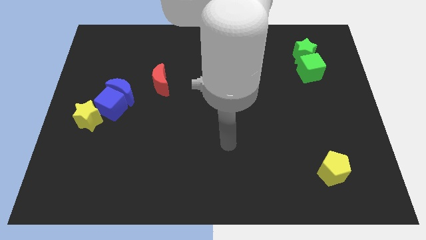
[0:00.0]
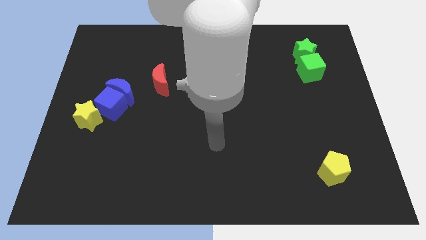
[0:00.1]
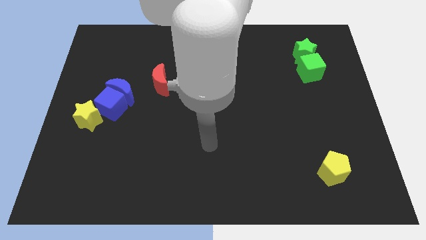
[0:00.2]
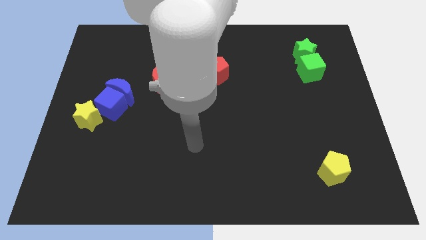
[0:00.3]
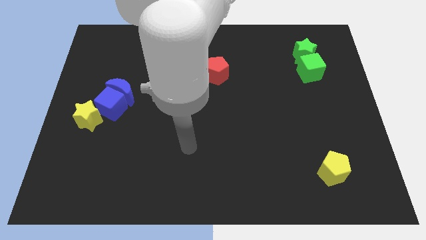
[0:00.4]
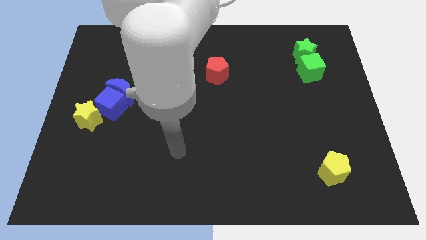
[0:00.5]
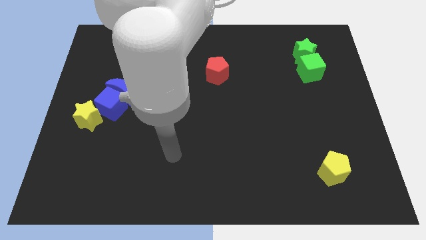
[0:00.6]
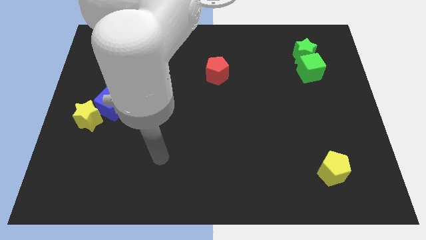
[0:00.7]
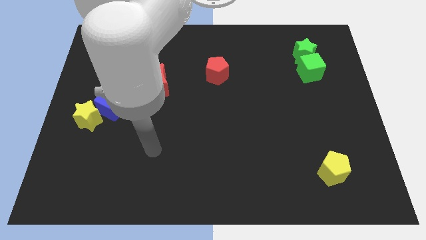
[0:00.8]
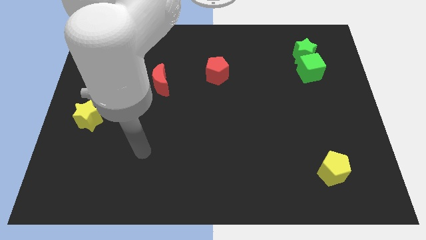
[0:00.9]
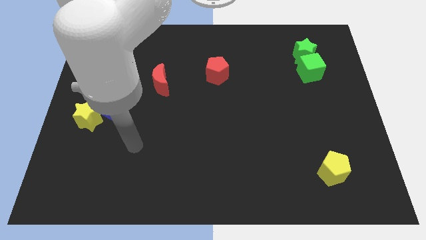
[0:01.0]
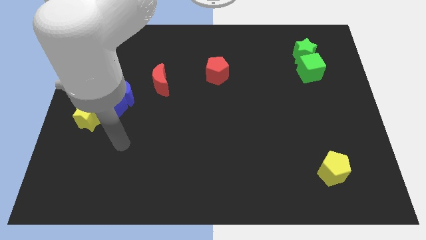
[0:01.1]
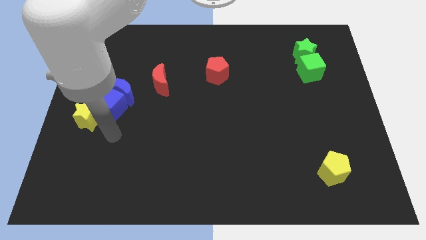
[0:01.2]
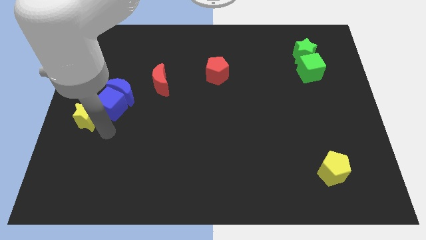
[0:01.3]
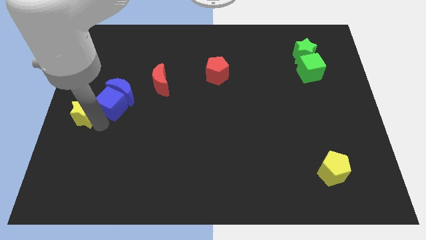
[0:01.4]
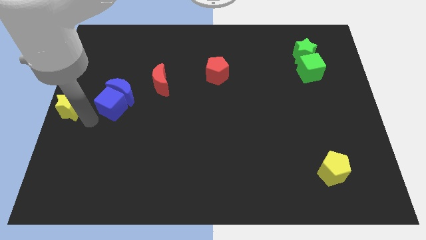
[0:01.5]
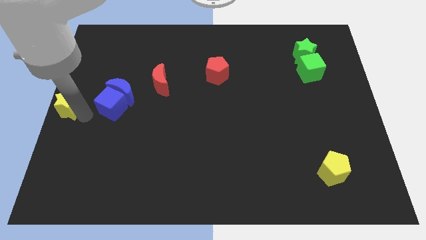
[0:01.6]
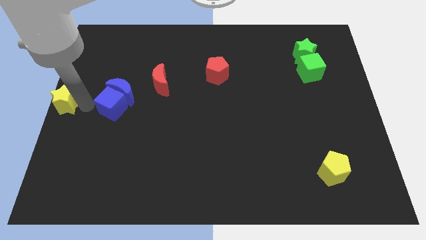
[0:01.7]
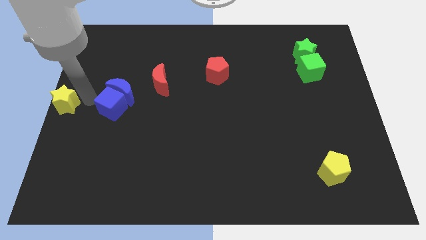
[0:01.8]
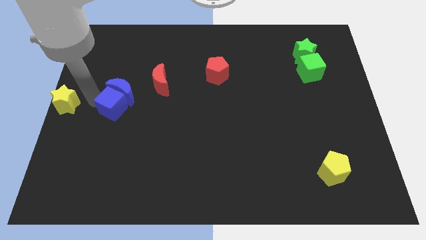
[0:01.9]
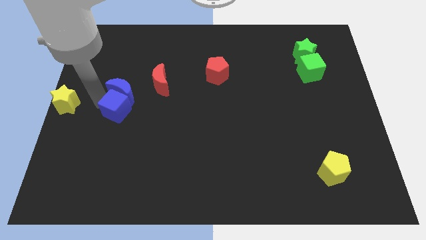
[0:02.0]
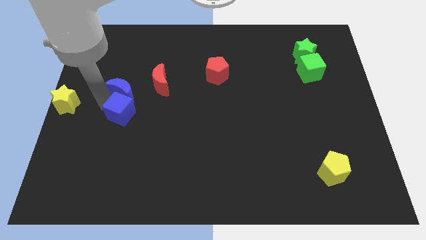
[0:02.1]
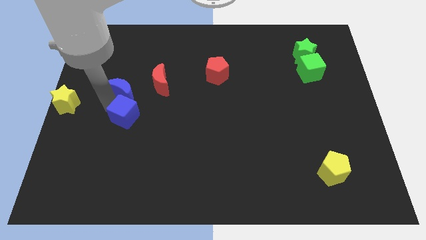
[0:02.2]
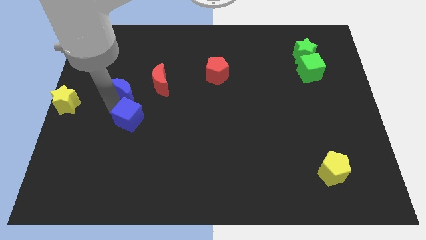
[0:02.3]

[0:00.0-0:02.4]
pull the blue cube apart from the blue moon and yellow star

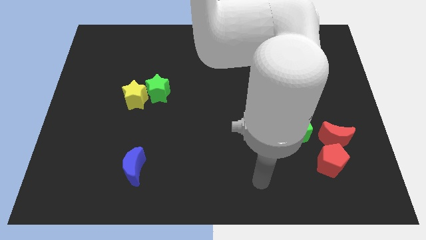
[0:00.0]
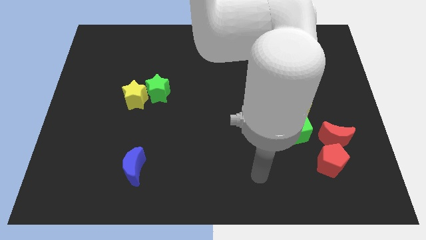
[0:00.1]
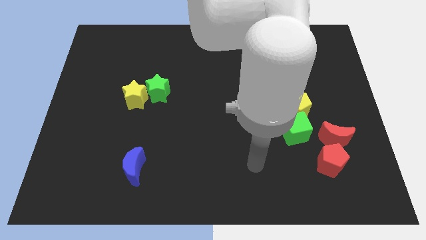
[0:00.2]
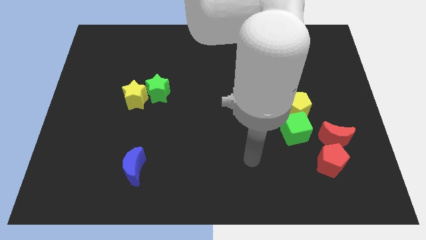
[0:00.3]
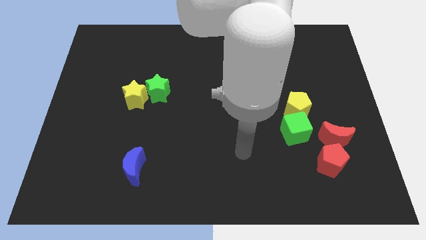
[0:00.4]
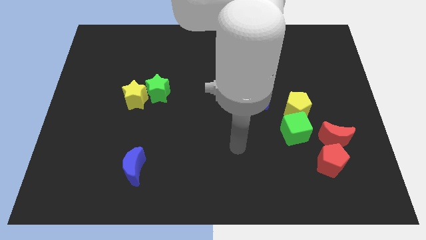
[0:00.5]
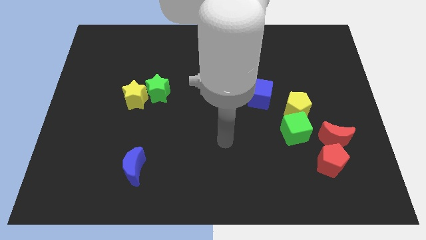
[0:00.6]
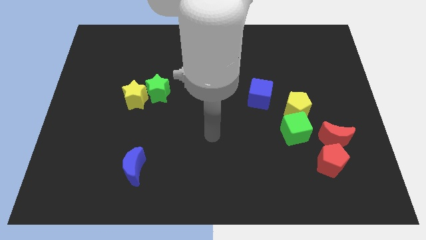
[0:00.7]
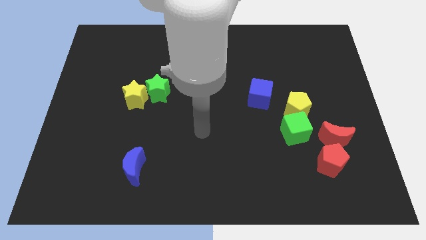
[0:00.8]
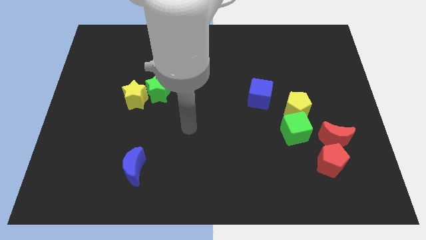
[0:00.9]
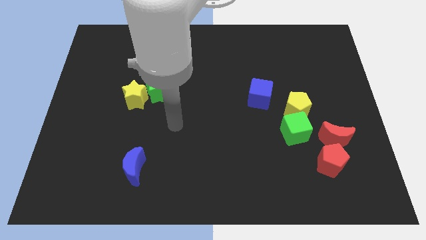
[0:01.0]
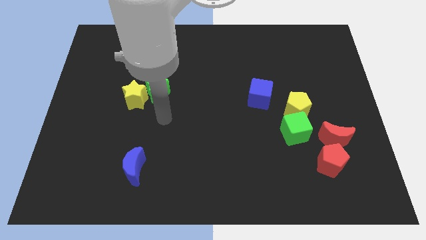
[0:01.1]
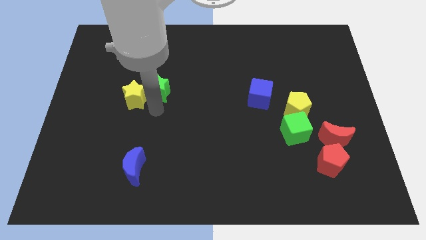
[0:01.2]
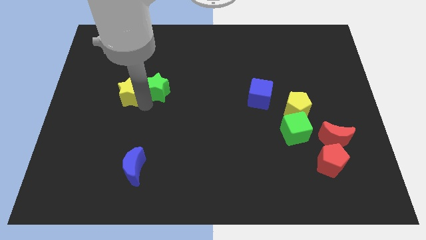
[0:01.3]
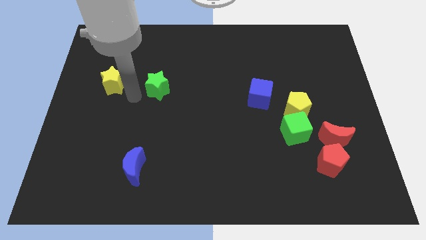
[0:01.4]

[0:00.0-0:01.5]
pull the green star apart from the yellow star

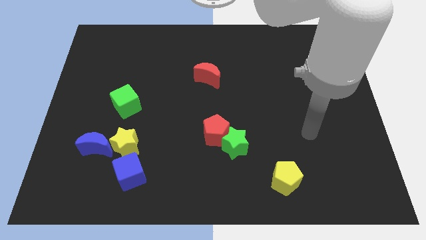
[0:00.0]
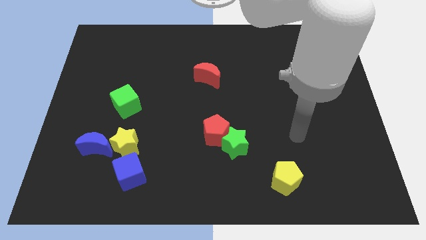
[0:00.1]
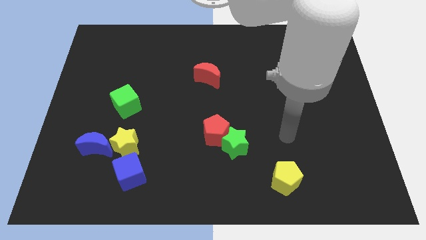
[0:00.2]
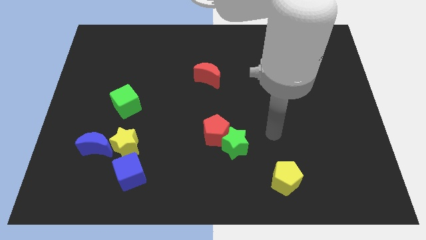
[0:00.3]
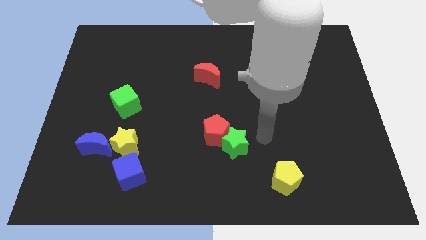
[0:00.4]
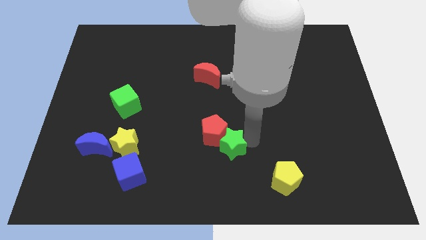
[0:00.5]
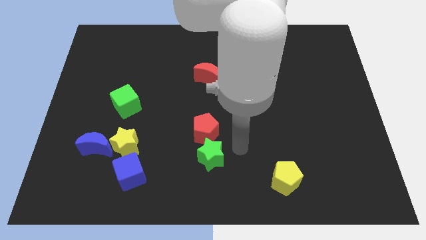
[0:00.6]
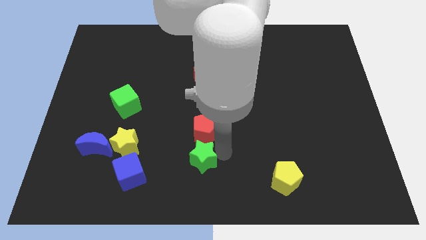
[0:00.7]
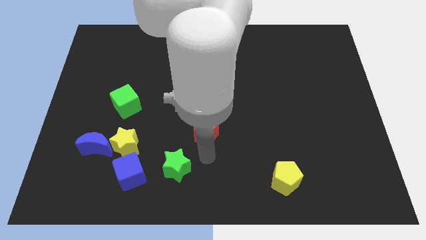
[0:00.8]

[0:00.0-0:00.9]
pull the red pentagon apart from the green star

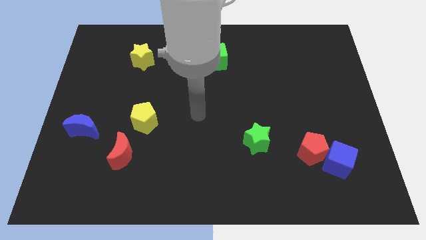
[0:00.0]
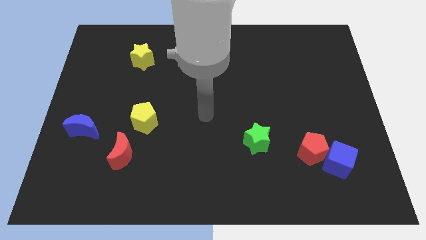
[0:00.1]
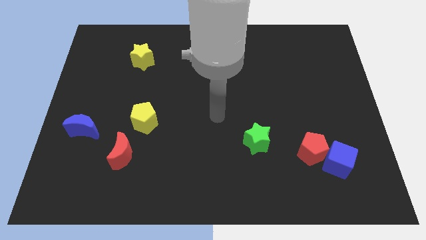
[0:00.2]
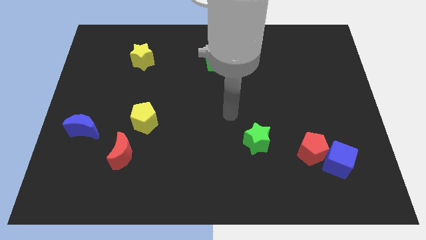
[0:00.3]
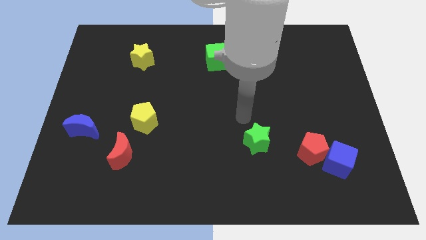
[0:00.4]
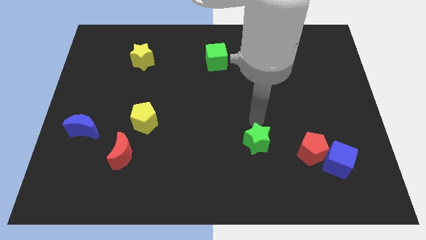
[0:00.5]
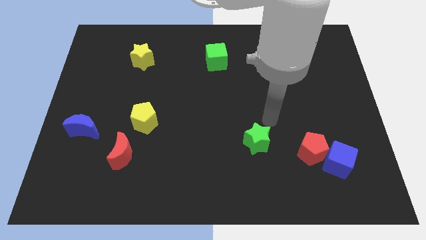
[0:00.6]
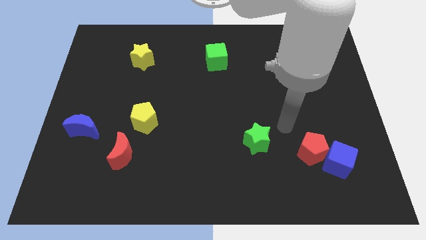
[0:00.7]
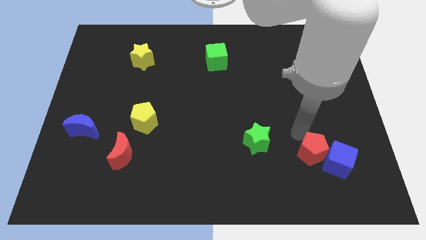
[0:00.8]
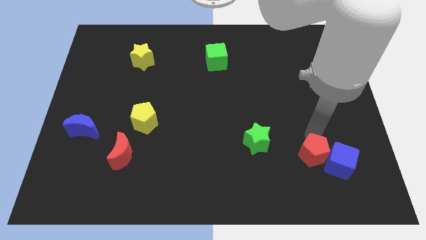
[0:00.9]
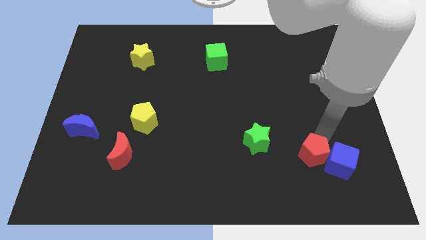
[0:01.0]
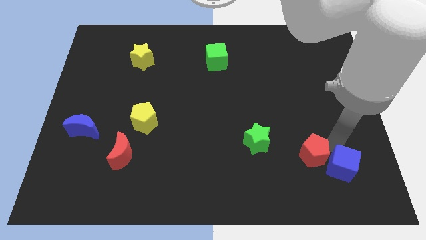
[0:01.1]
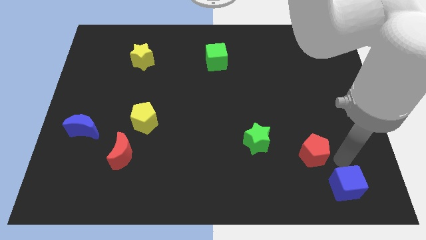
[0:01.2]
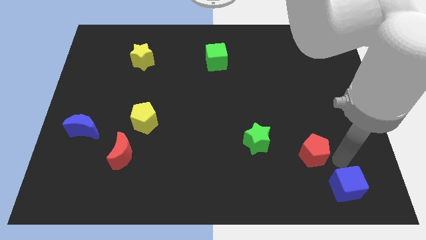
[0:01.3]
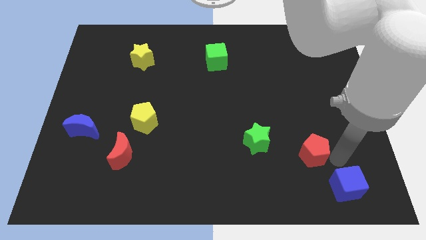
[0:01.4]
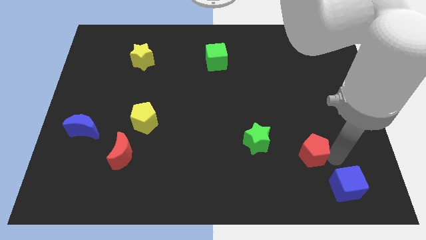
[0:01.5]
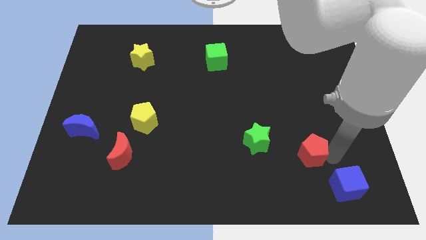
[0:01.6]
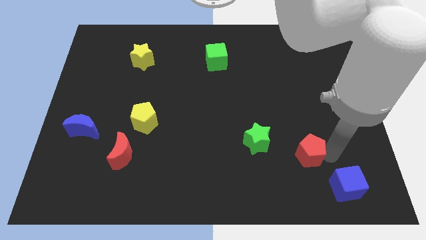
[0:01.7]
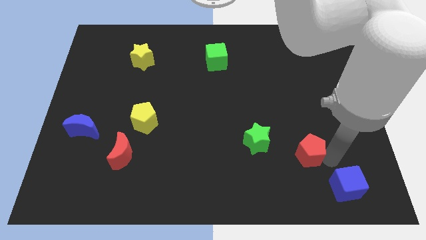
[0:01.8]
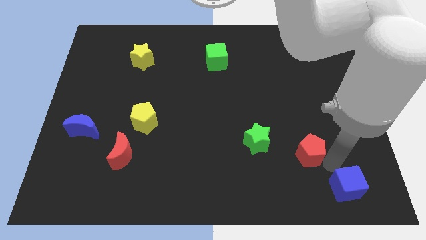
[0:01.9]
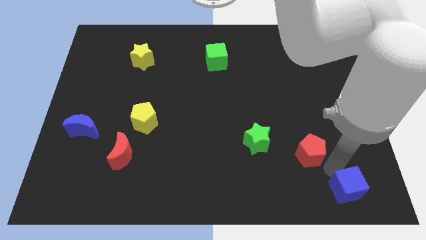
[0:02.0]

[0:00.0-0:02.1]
move the red pentagon away from the blue cube

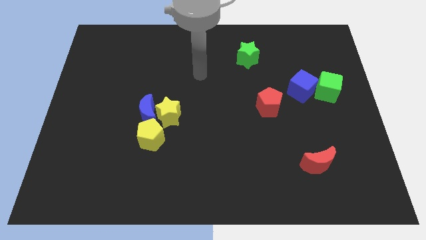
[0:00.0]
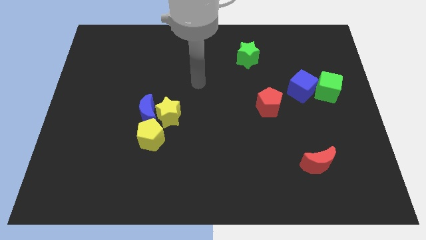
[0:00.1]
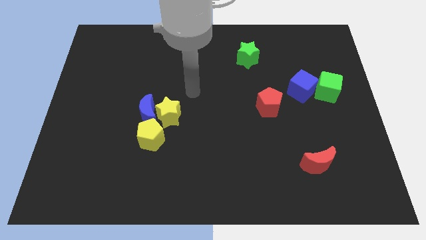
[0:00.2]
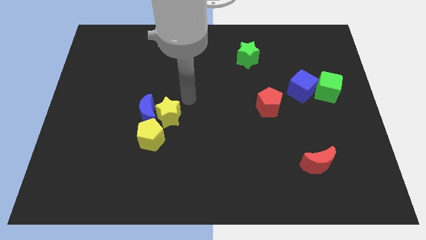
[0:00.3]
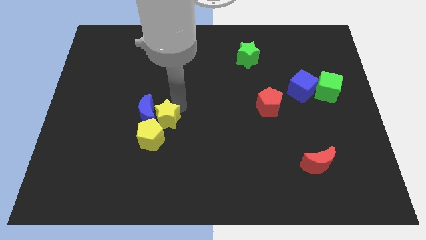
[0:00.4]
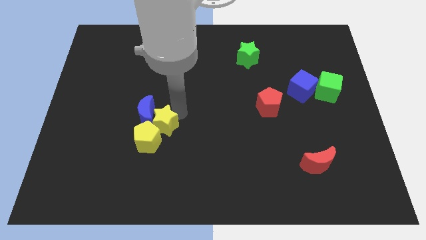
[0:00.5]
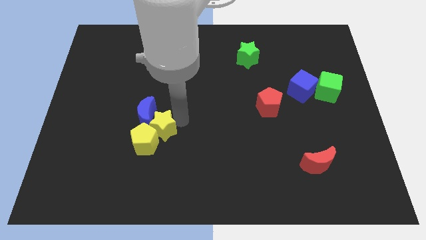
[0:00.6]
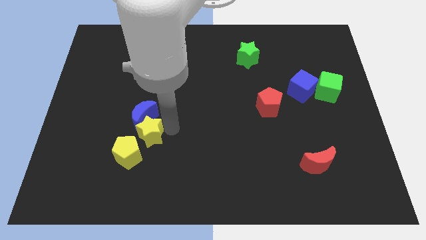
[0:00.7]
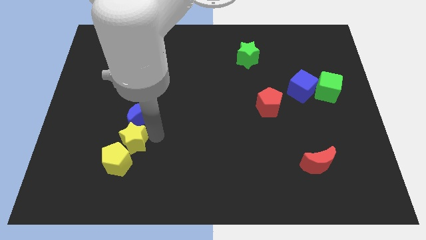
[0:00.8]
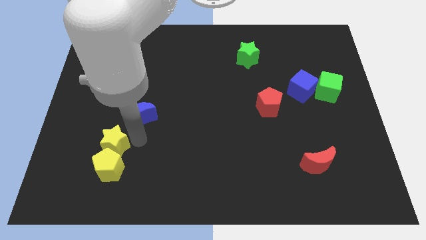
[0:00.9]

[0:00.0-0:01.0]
pull the blue moon apart from the yellow star and yellow pentagon

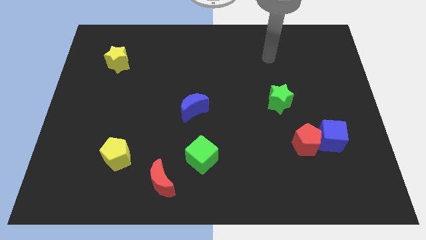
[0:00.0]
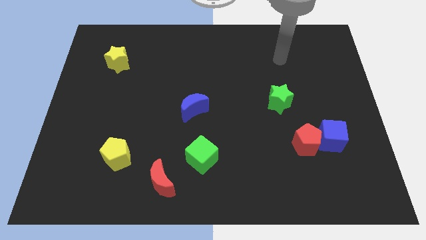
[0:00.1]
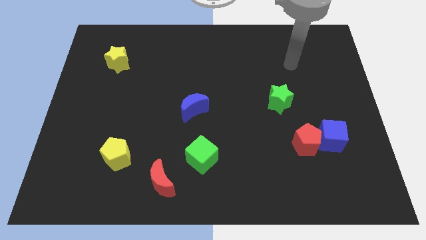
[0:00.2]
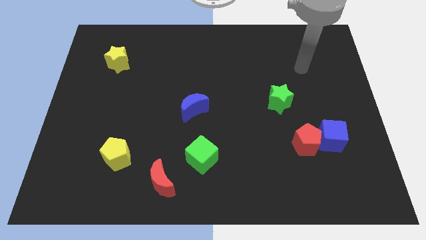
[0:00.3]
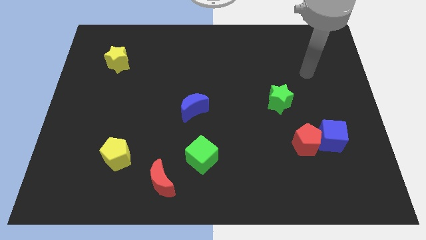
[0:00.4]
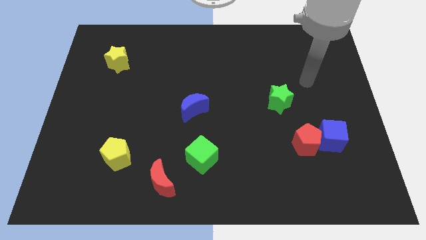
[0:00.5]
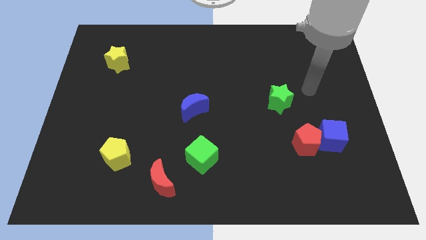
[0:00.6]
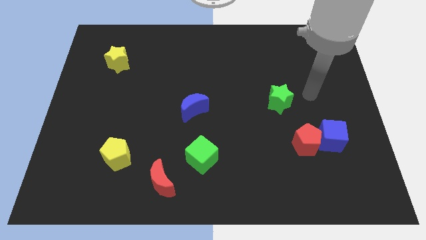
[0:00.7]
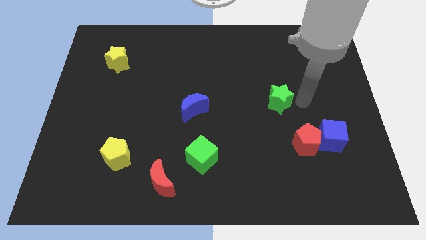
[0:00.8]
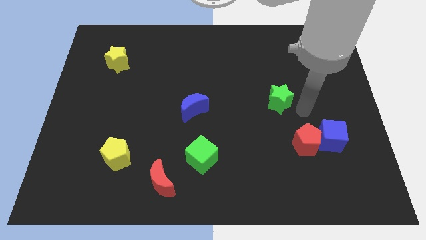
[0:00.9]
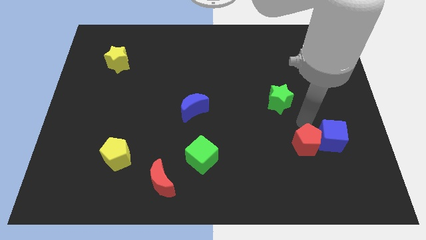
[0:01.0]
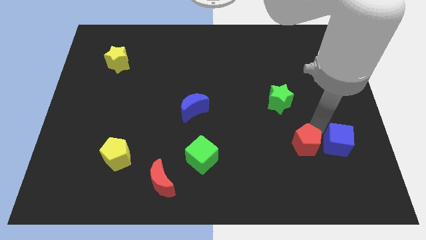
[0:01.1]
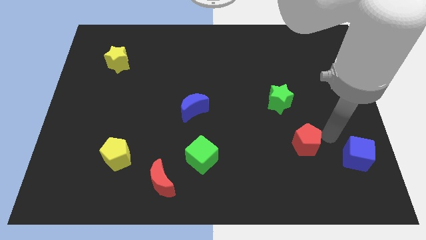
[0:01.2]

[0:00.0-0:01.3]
pull the red pentagon apart from the blue cube
